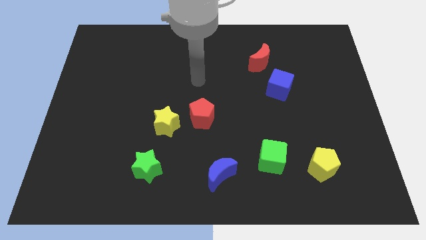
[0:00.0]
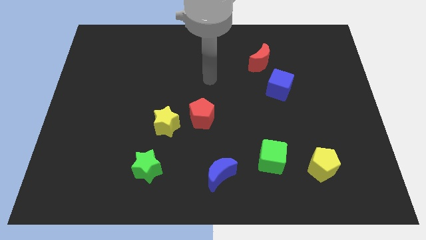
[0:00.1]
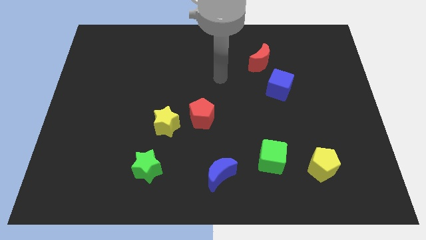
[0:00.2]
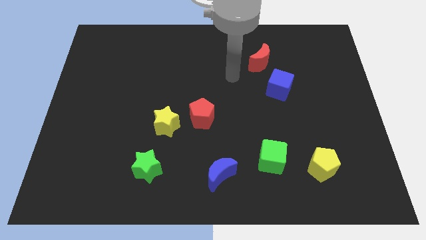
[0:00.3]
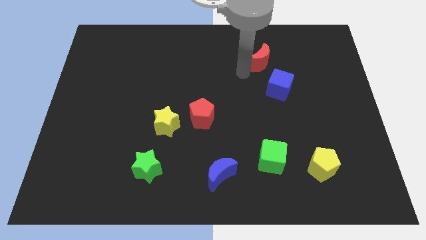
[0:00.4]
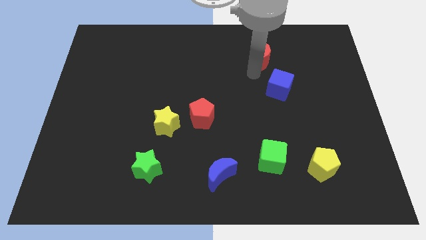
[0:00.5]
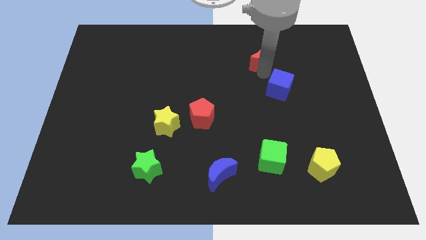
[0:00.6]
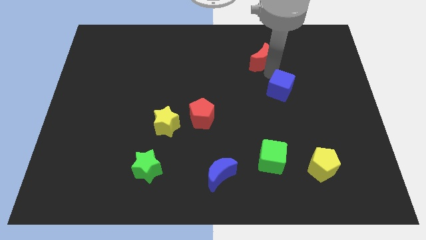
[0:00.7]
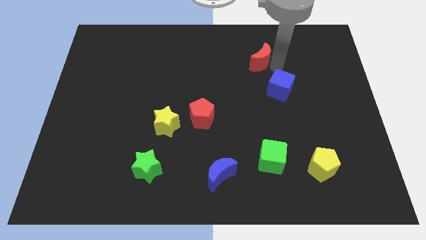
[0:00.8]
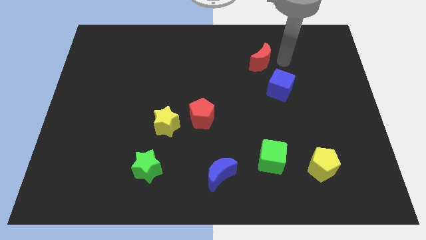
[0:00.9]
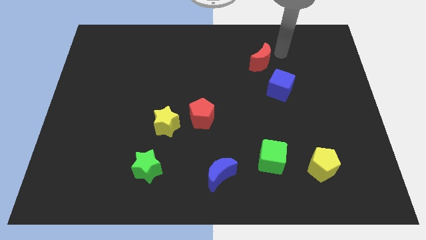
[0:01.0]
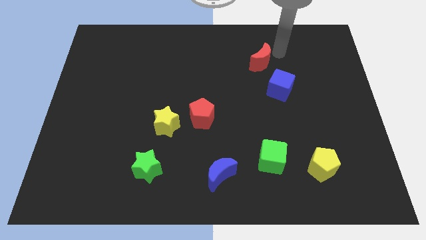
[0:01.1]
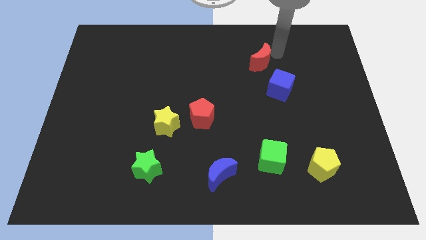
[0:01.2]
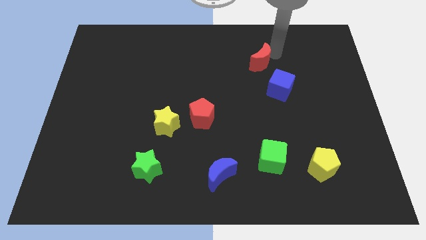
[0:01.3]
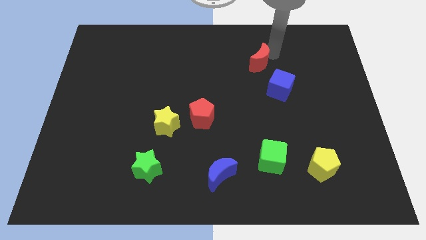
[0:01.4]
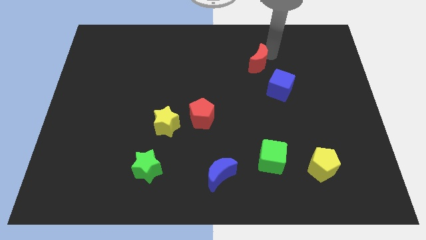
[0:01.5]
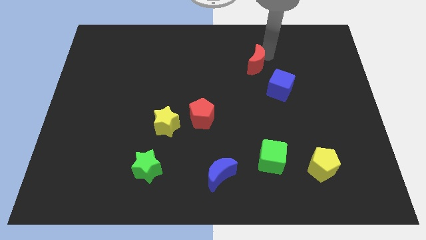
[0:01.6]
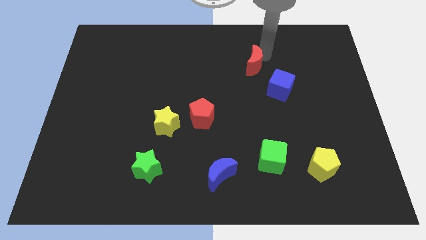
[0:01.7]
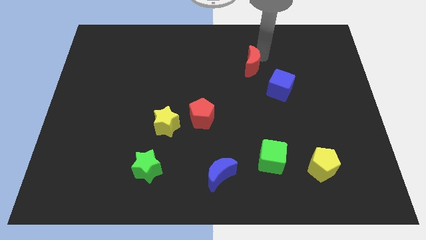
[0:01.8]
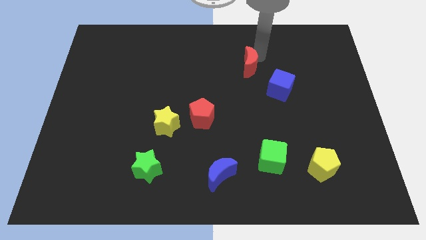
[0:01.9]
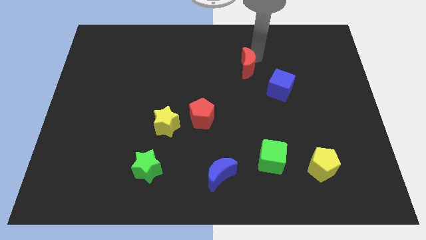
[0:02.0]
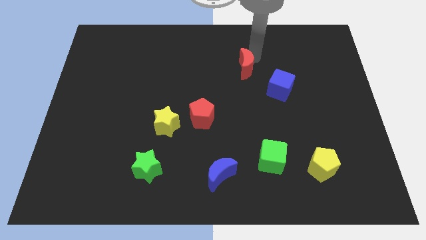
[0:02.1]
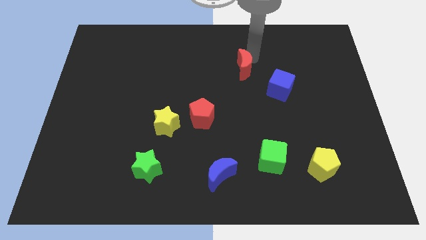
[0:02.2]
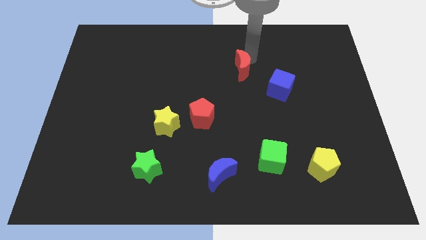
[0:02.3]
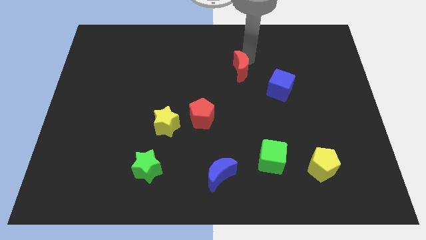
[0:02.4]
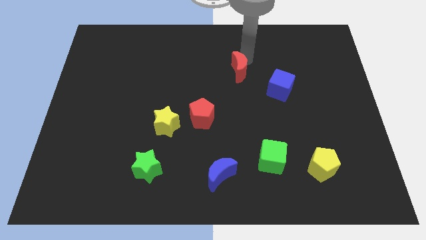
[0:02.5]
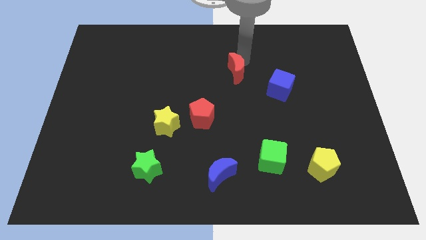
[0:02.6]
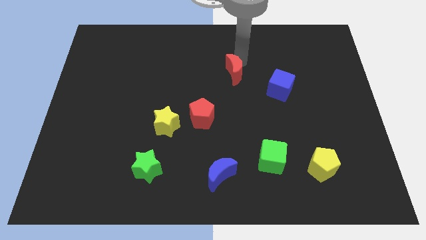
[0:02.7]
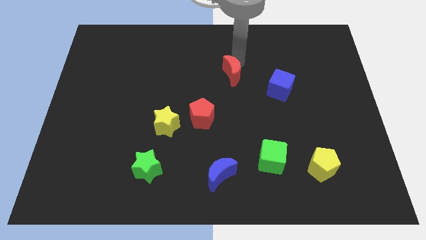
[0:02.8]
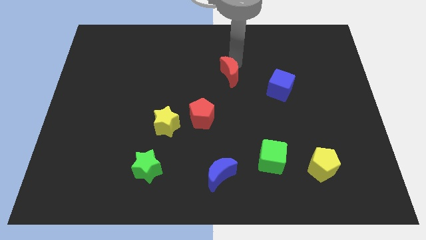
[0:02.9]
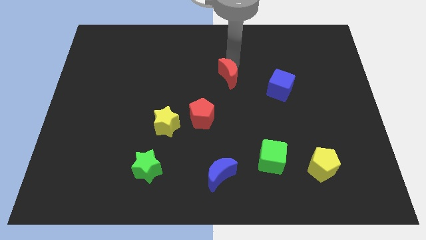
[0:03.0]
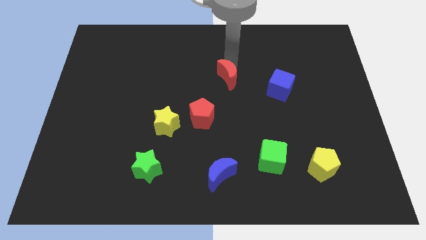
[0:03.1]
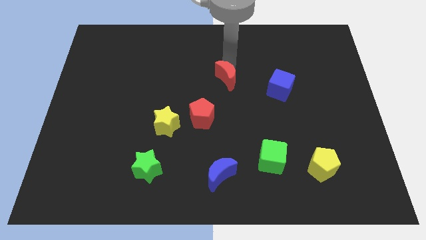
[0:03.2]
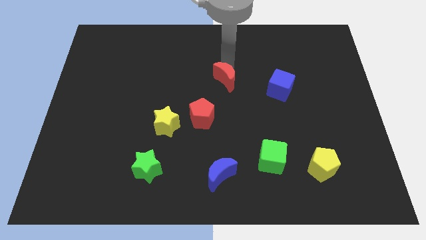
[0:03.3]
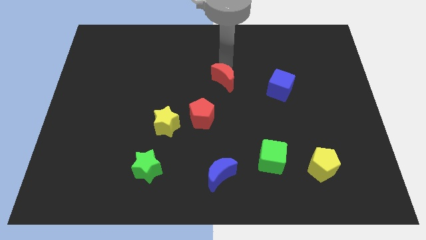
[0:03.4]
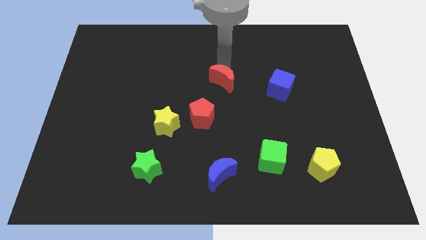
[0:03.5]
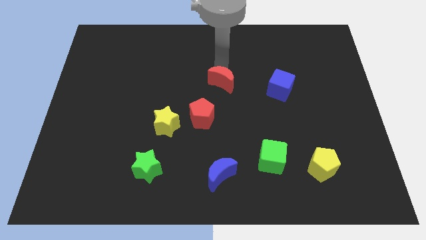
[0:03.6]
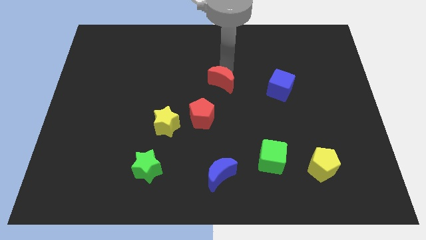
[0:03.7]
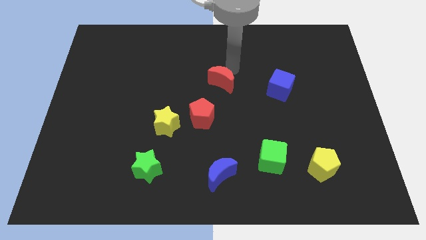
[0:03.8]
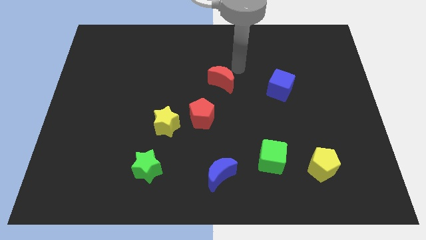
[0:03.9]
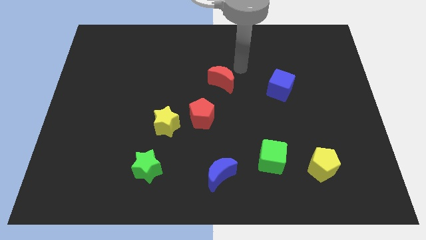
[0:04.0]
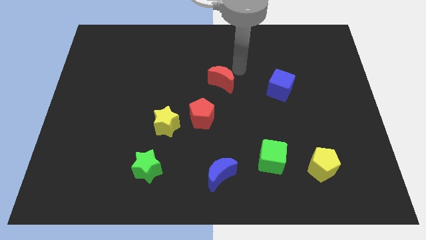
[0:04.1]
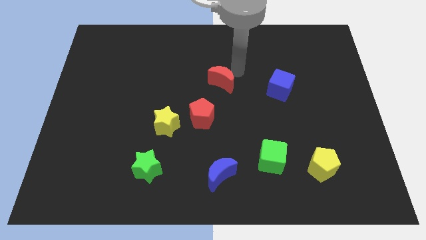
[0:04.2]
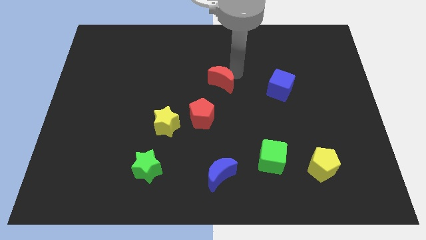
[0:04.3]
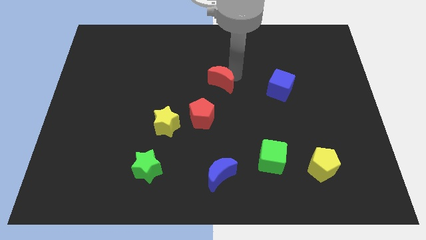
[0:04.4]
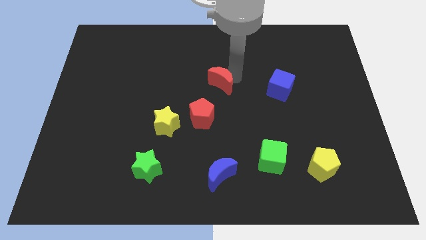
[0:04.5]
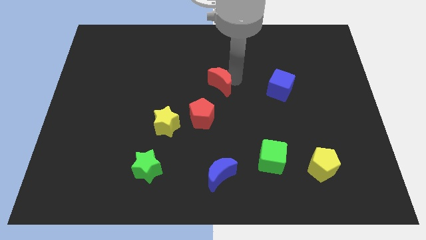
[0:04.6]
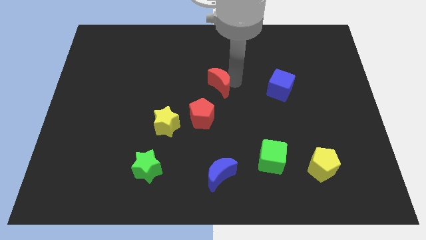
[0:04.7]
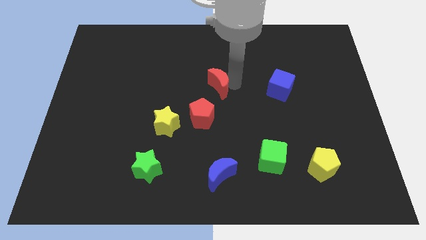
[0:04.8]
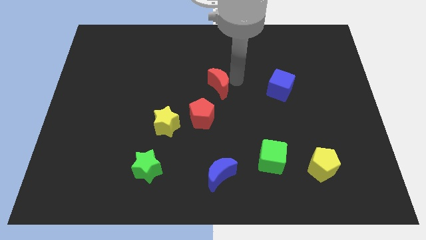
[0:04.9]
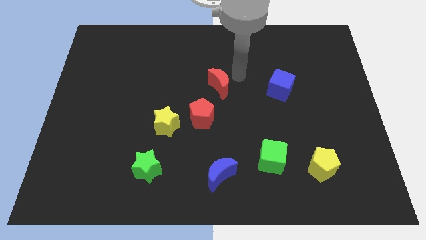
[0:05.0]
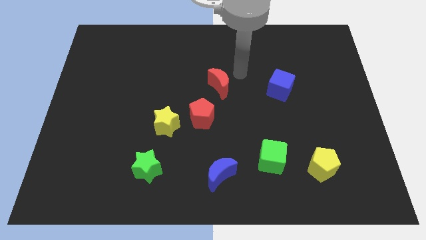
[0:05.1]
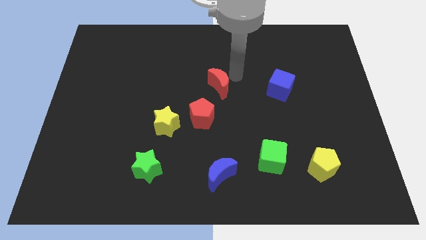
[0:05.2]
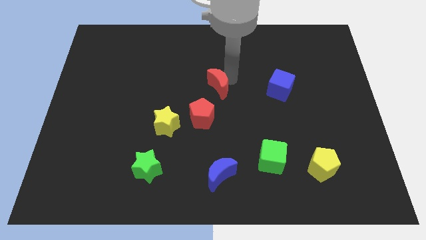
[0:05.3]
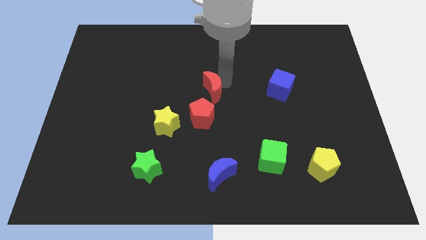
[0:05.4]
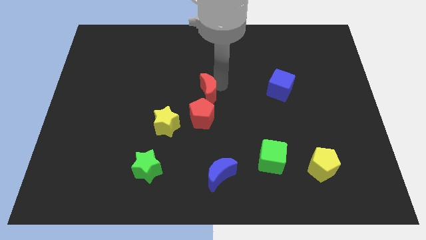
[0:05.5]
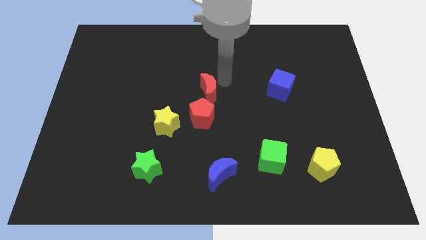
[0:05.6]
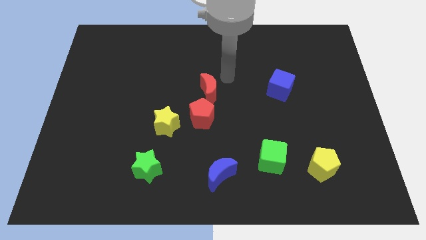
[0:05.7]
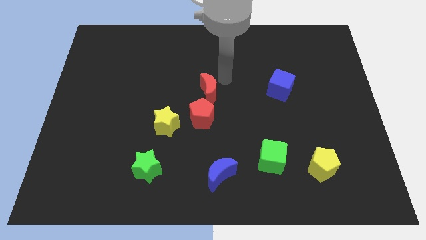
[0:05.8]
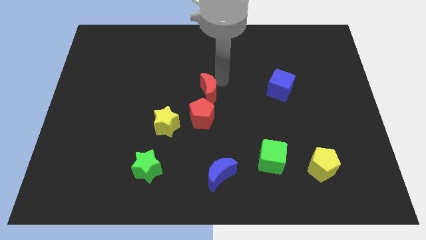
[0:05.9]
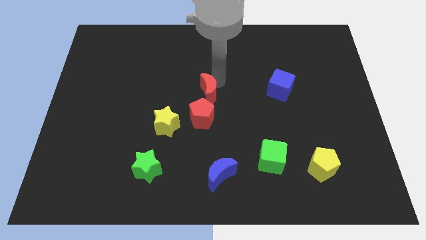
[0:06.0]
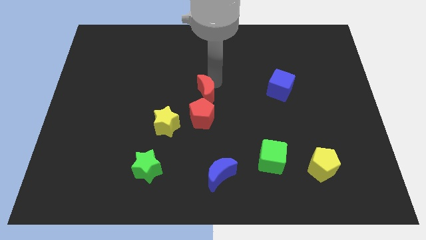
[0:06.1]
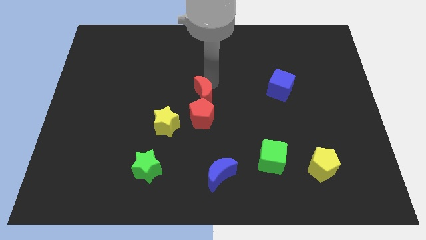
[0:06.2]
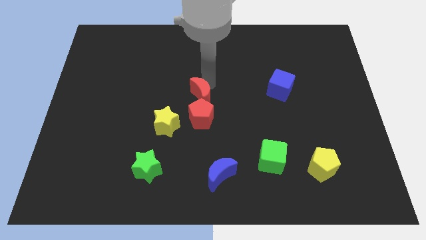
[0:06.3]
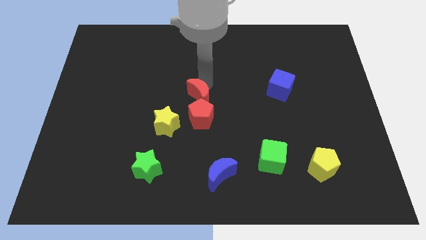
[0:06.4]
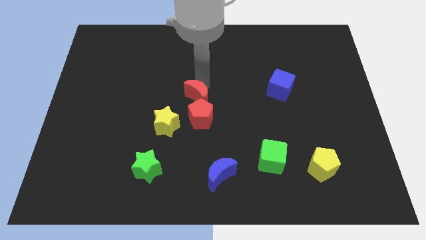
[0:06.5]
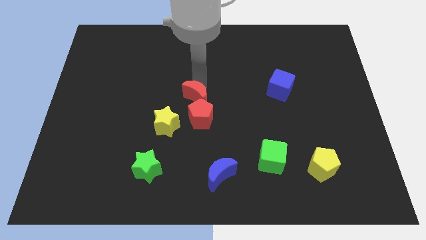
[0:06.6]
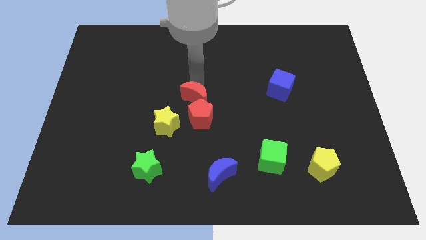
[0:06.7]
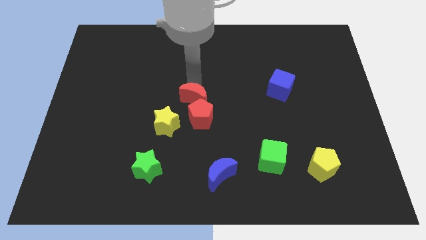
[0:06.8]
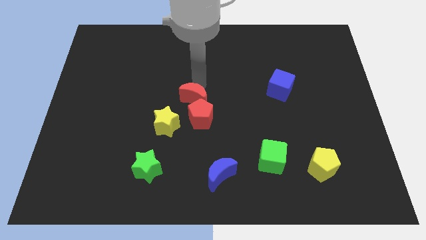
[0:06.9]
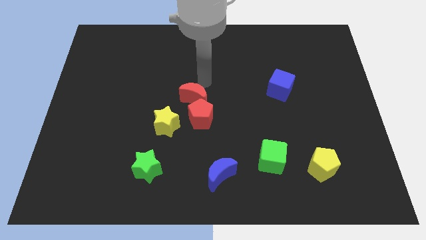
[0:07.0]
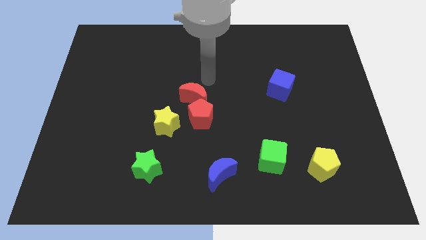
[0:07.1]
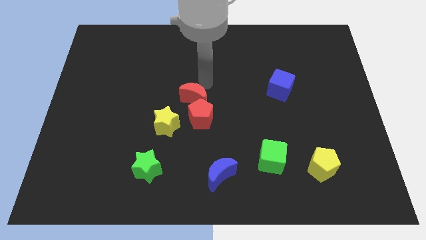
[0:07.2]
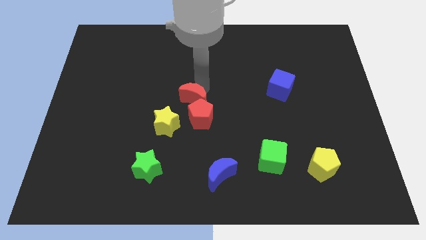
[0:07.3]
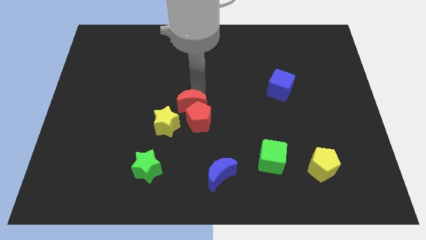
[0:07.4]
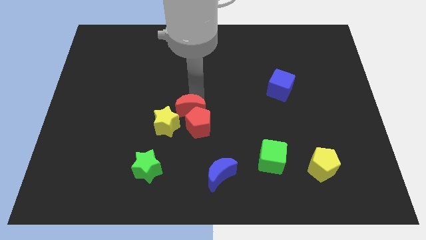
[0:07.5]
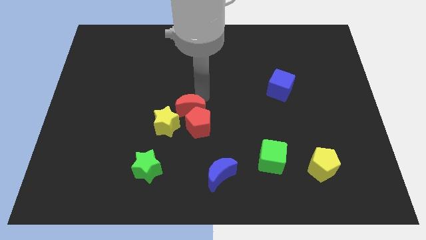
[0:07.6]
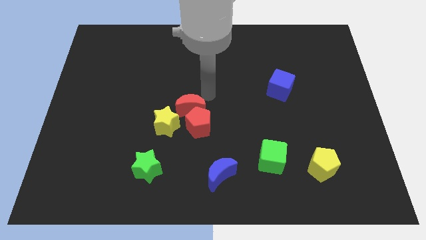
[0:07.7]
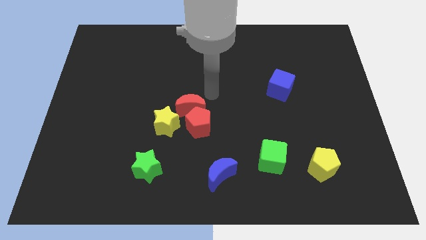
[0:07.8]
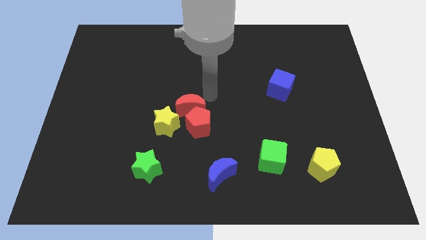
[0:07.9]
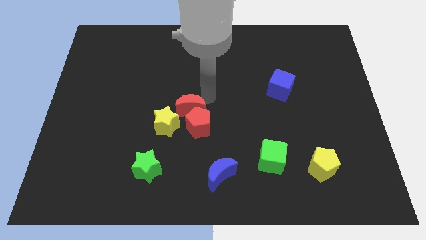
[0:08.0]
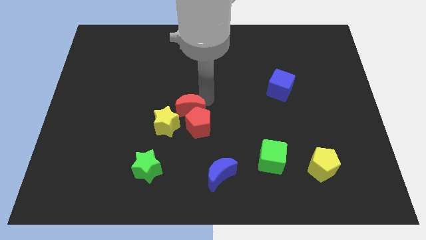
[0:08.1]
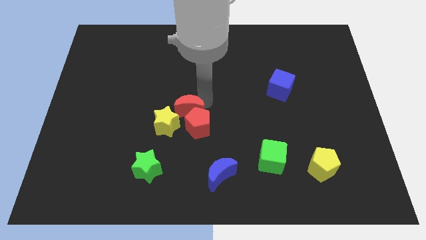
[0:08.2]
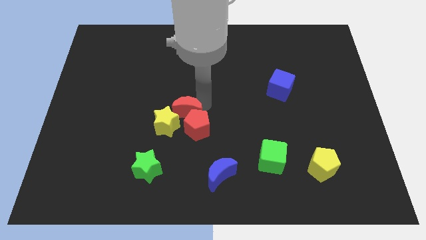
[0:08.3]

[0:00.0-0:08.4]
slide the red moon to the yellow star
